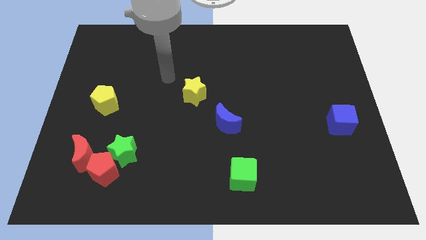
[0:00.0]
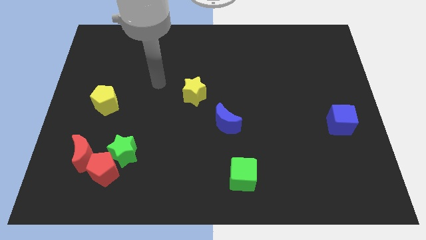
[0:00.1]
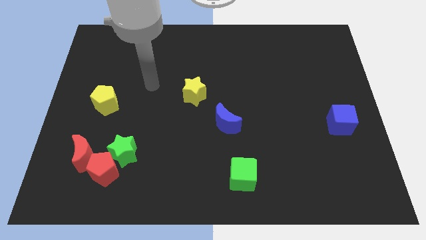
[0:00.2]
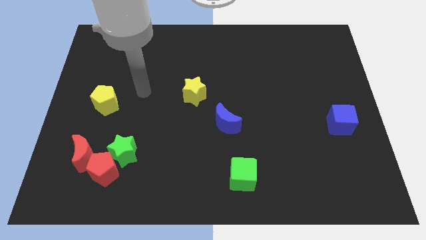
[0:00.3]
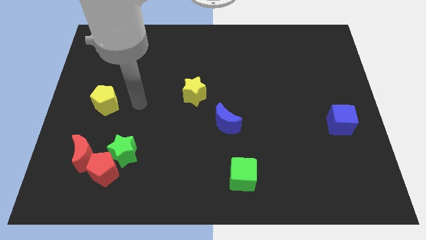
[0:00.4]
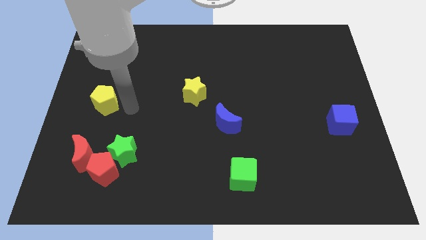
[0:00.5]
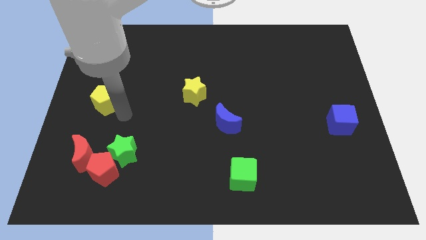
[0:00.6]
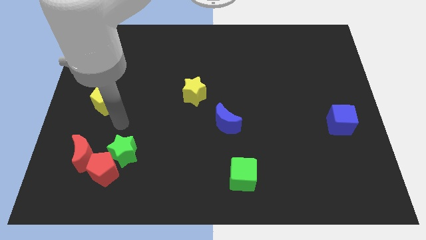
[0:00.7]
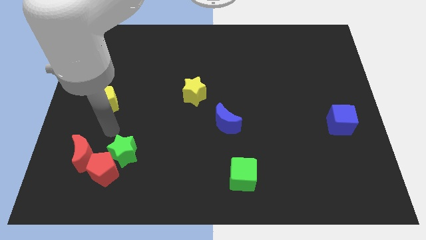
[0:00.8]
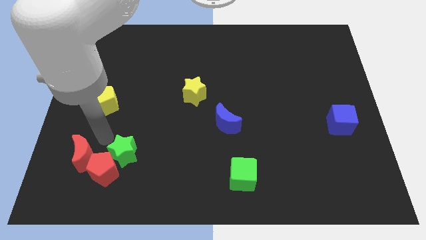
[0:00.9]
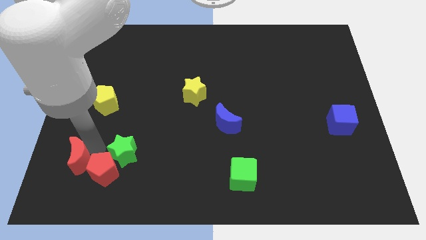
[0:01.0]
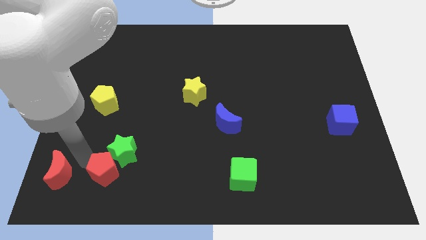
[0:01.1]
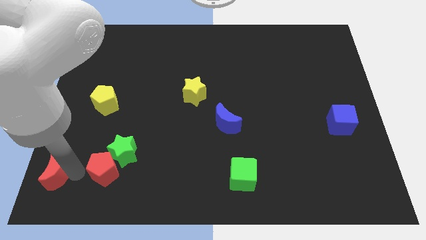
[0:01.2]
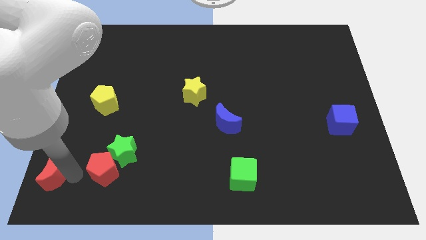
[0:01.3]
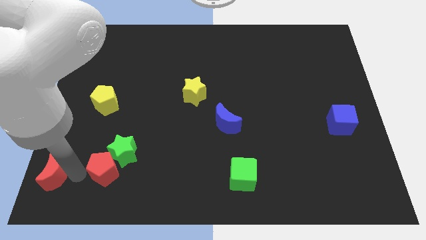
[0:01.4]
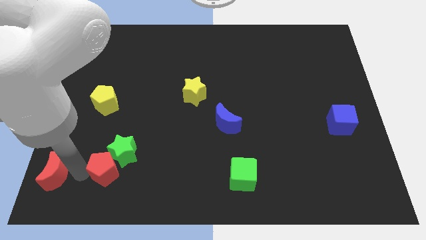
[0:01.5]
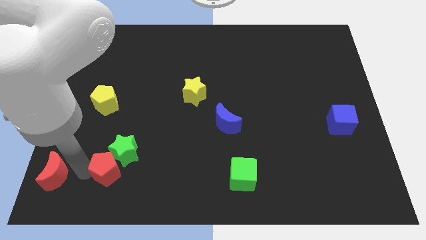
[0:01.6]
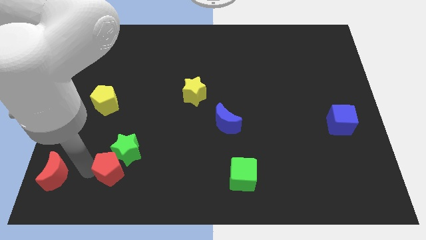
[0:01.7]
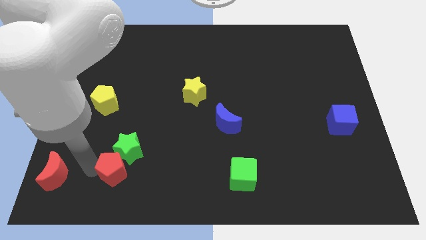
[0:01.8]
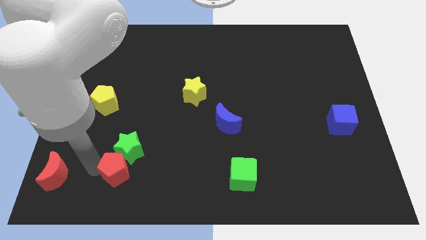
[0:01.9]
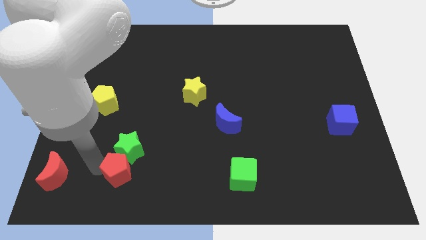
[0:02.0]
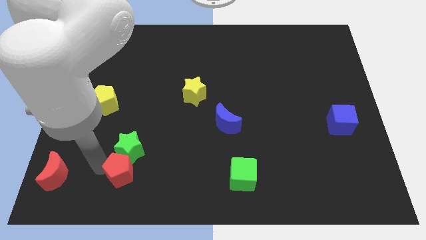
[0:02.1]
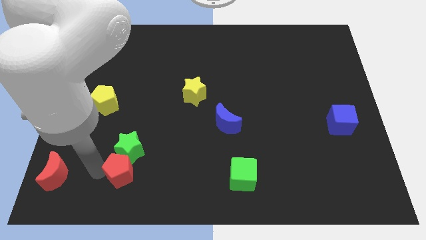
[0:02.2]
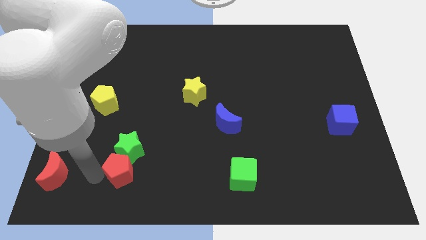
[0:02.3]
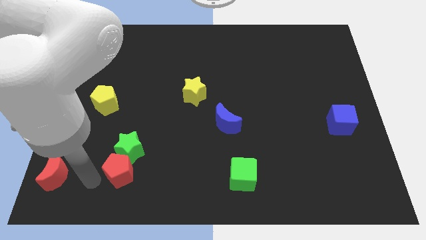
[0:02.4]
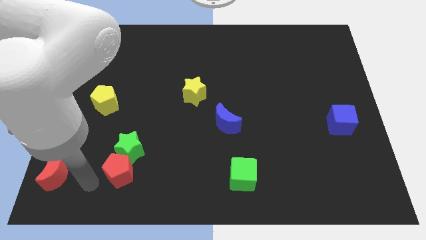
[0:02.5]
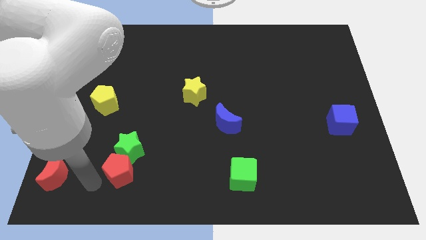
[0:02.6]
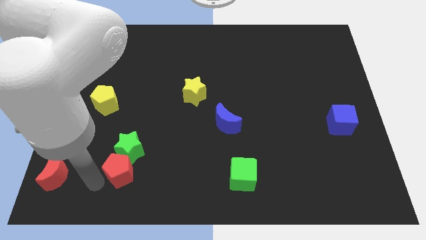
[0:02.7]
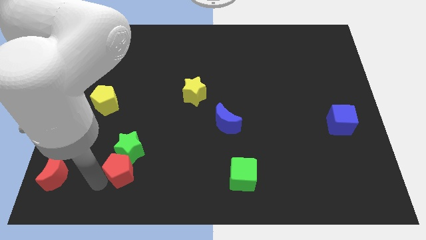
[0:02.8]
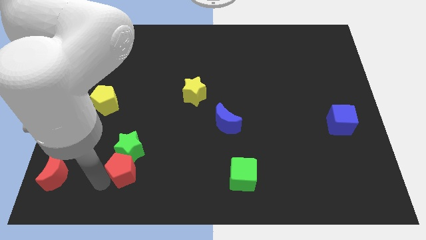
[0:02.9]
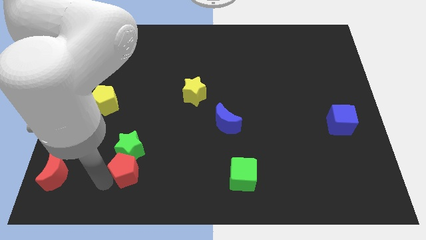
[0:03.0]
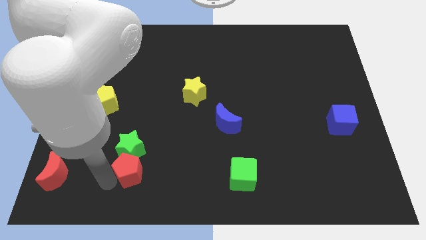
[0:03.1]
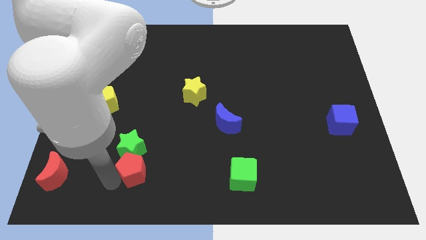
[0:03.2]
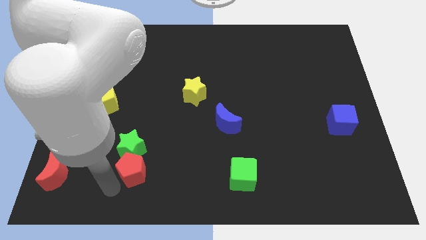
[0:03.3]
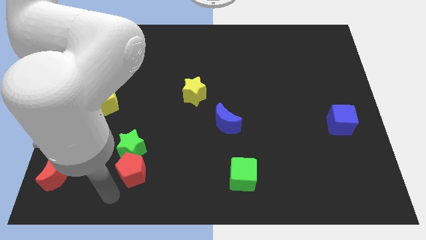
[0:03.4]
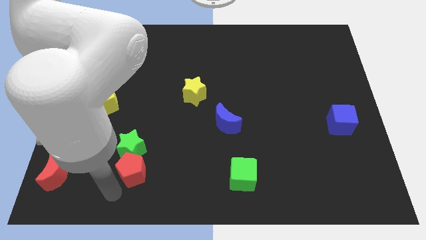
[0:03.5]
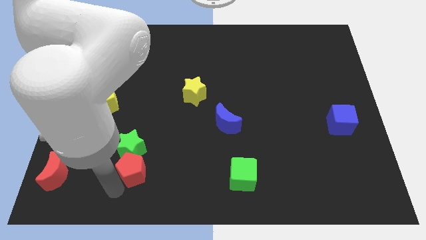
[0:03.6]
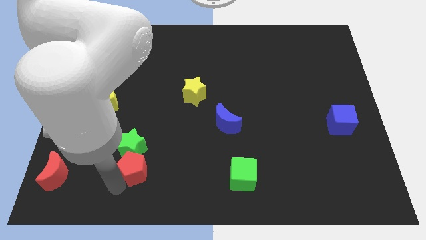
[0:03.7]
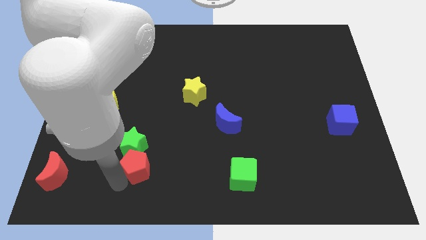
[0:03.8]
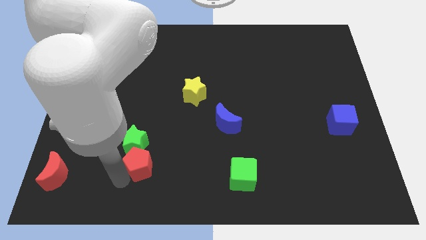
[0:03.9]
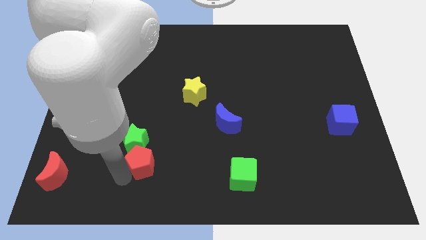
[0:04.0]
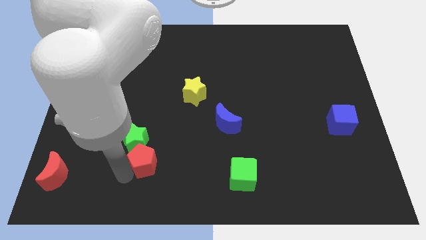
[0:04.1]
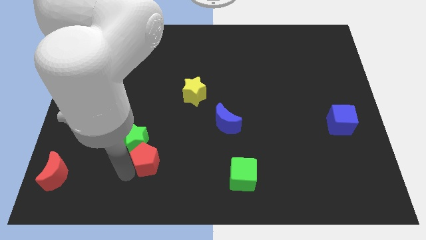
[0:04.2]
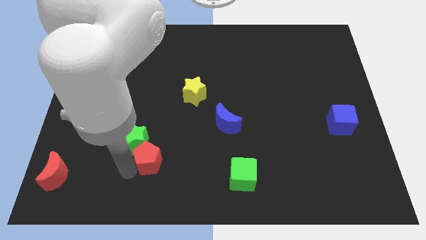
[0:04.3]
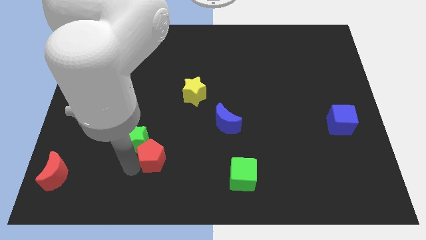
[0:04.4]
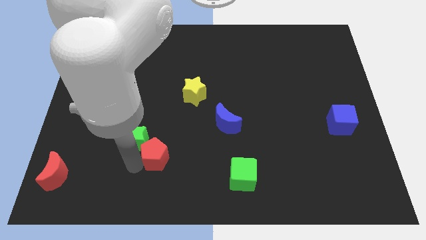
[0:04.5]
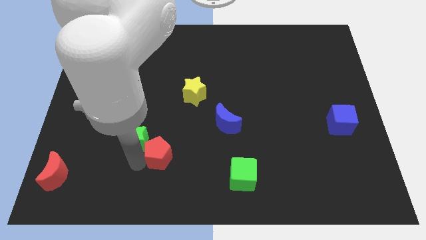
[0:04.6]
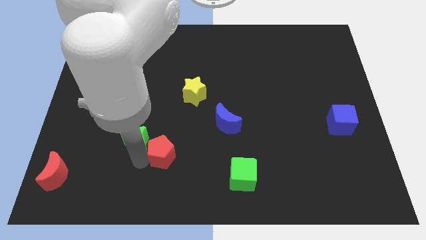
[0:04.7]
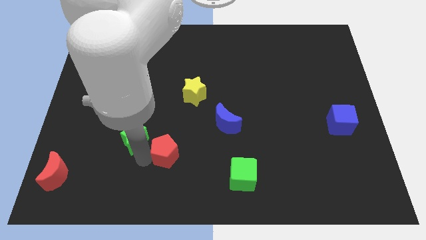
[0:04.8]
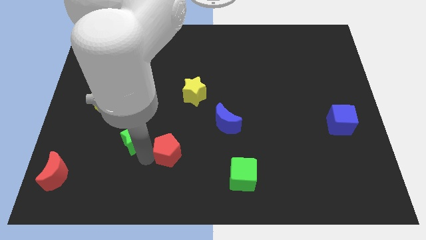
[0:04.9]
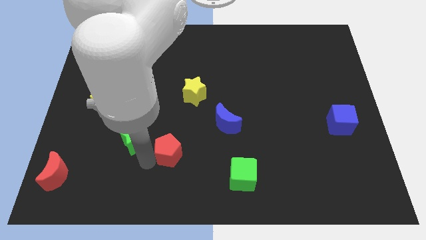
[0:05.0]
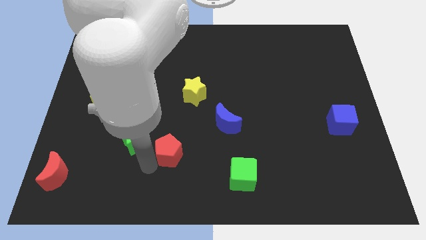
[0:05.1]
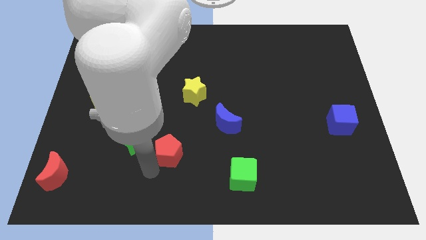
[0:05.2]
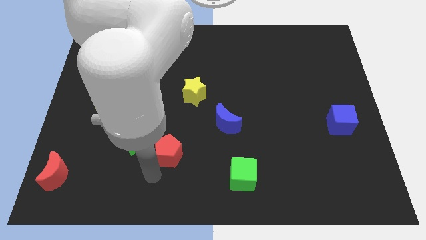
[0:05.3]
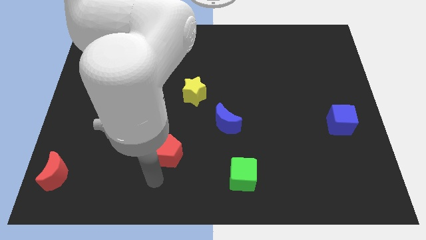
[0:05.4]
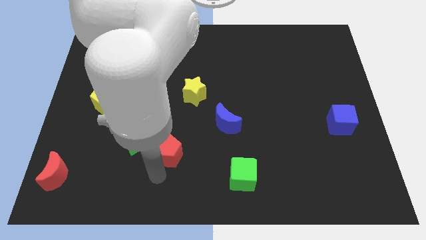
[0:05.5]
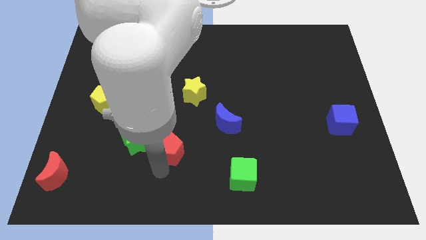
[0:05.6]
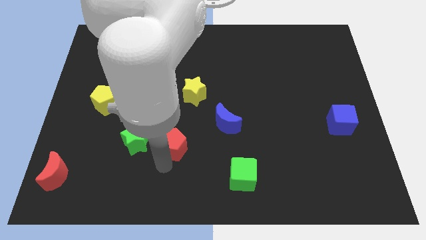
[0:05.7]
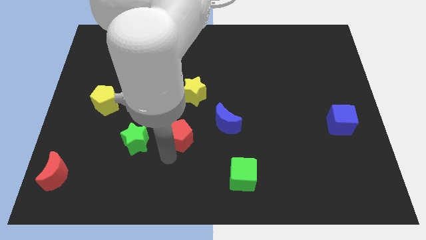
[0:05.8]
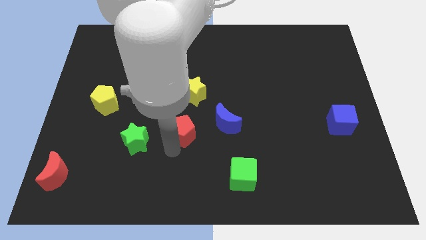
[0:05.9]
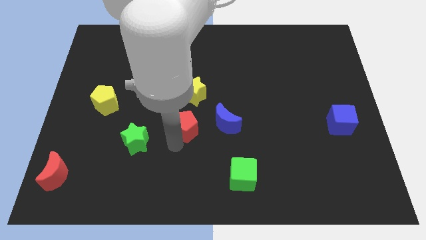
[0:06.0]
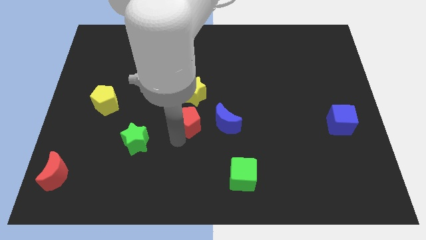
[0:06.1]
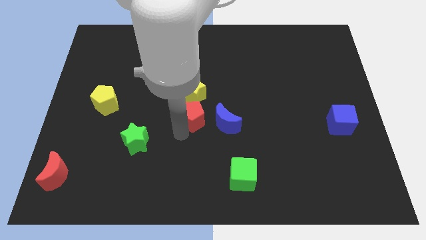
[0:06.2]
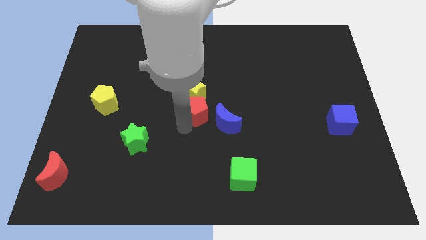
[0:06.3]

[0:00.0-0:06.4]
slide the red pentagon to the bottom right side of the yellow star

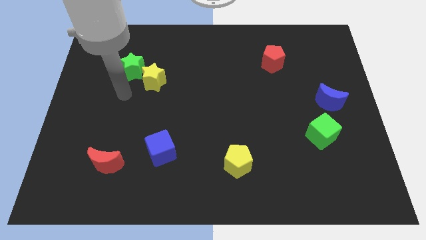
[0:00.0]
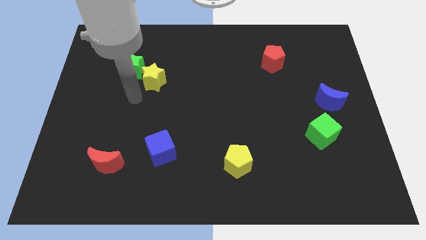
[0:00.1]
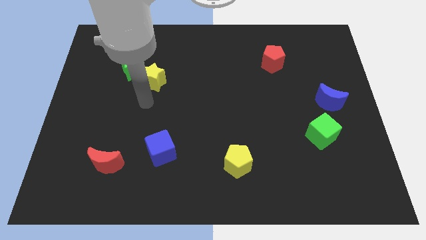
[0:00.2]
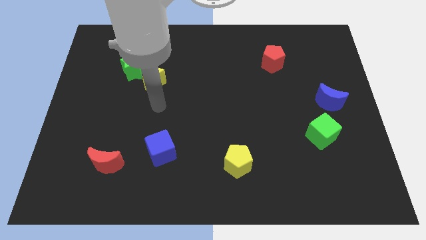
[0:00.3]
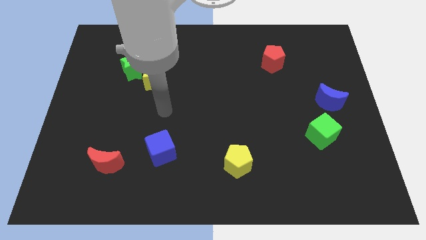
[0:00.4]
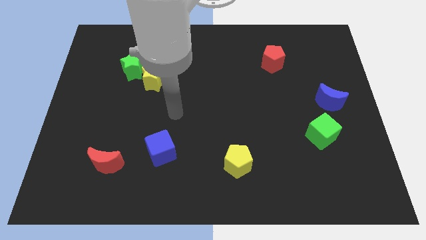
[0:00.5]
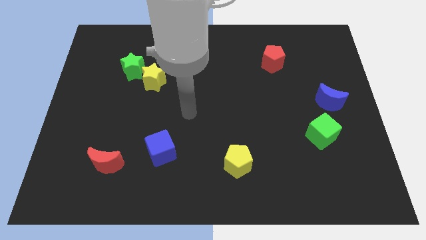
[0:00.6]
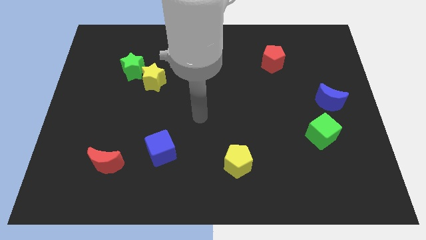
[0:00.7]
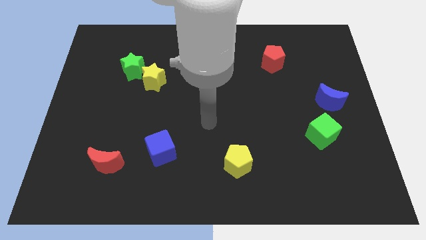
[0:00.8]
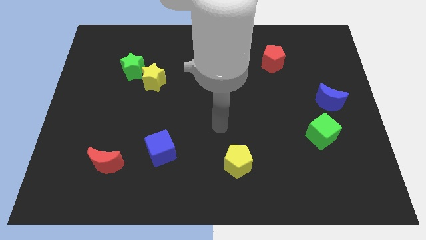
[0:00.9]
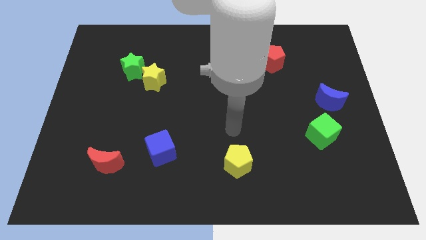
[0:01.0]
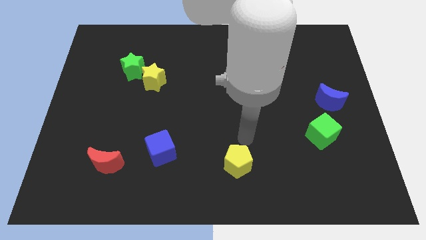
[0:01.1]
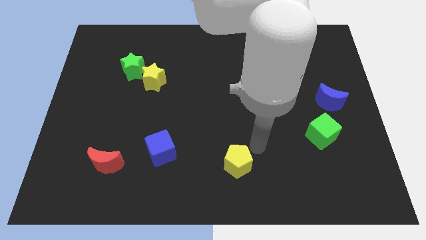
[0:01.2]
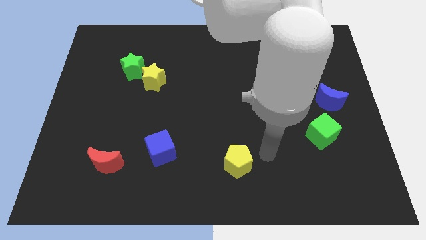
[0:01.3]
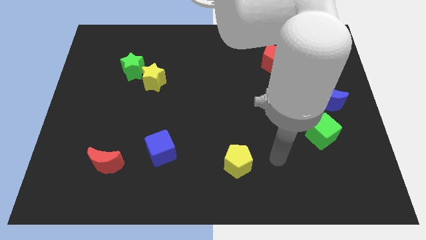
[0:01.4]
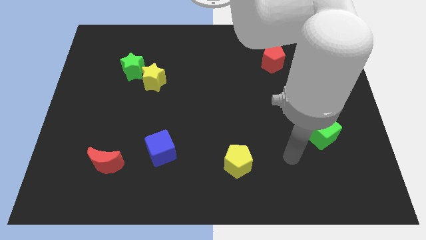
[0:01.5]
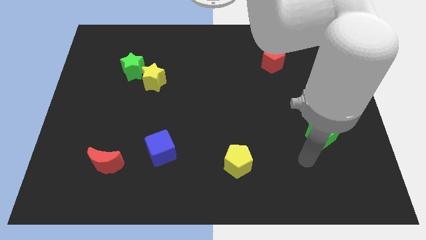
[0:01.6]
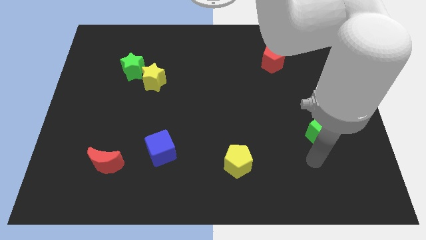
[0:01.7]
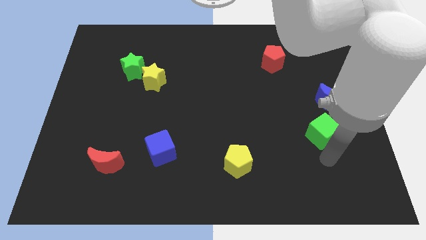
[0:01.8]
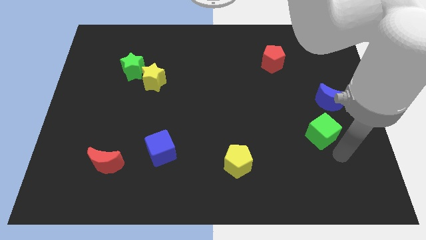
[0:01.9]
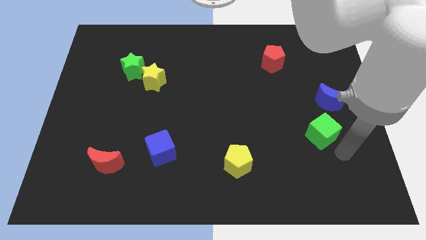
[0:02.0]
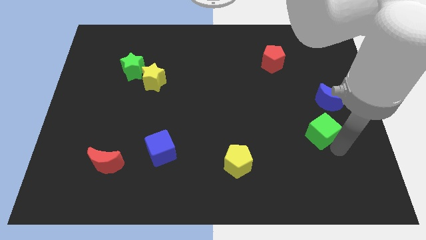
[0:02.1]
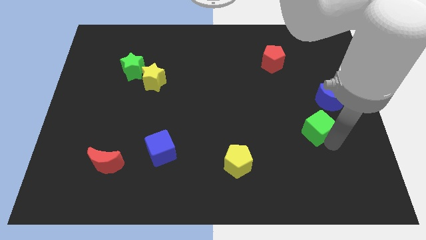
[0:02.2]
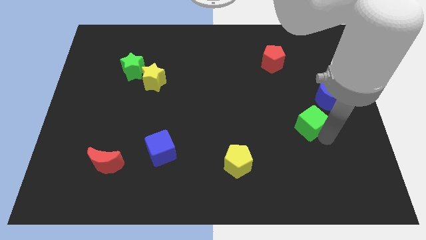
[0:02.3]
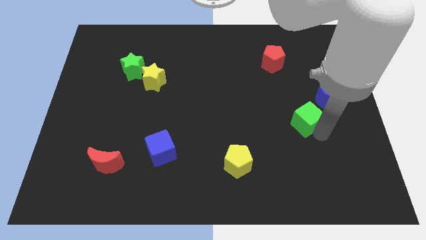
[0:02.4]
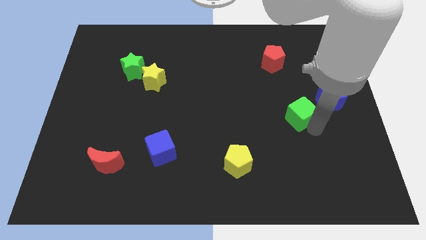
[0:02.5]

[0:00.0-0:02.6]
push the green cube to the left of the blue moon
